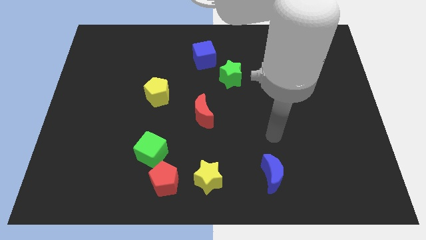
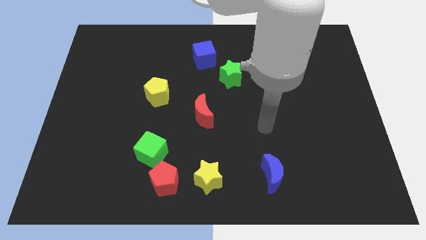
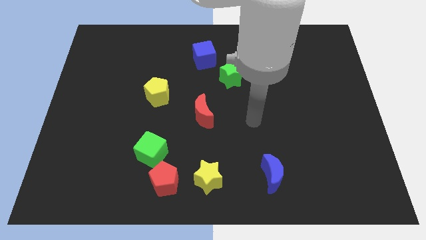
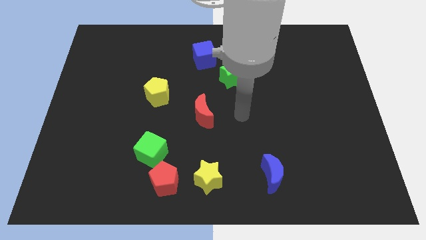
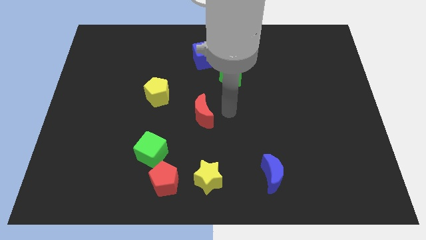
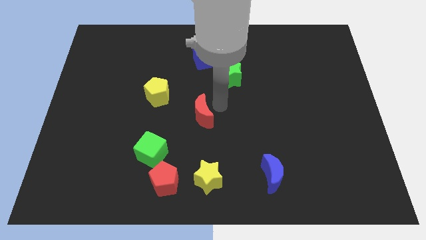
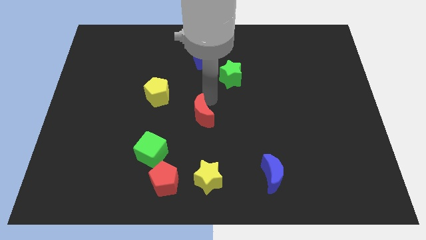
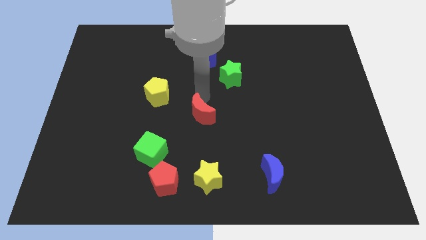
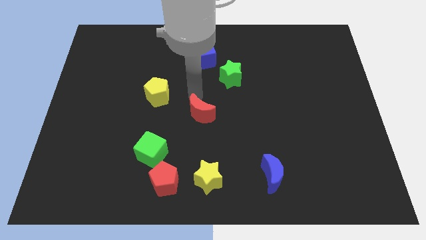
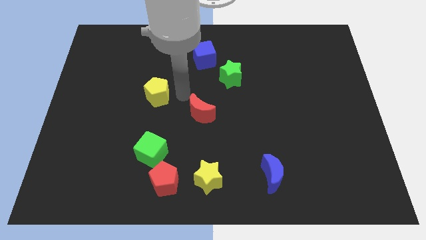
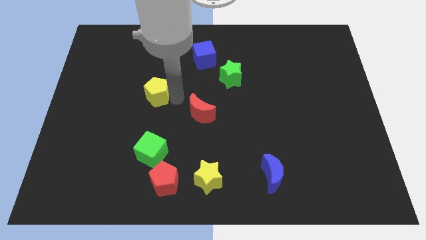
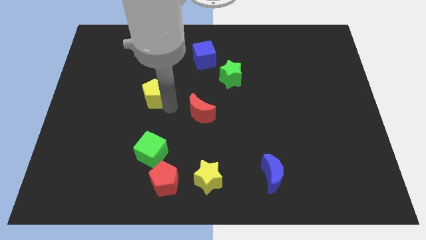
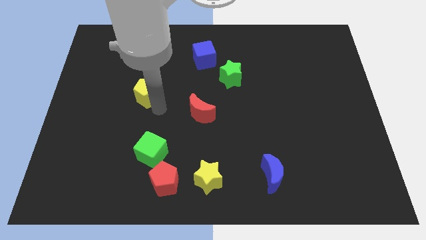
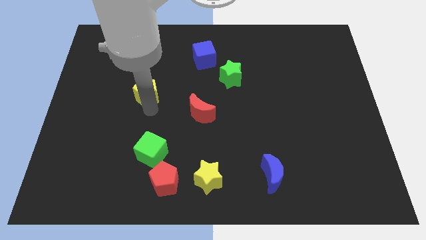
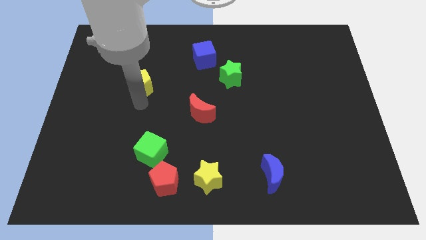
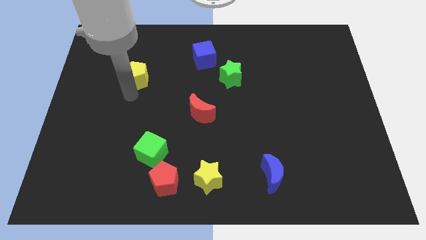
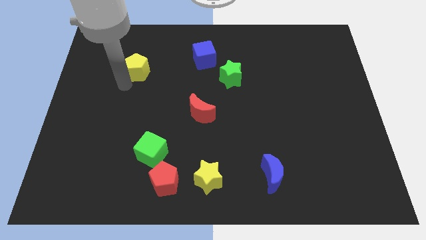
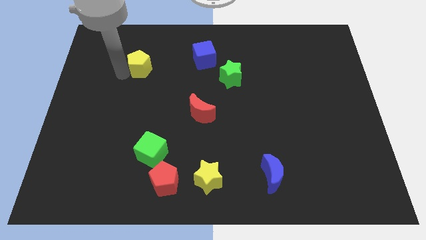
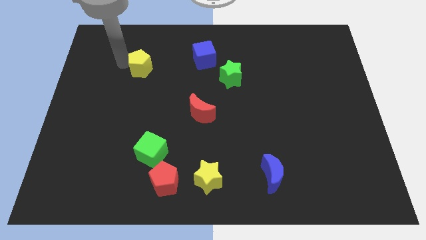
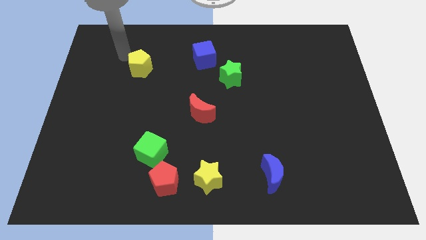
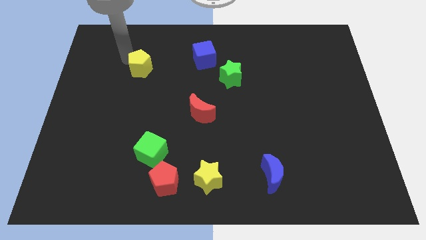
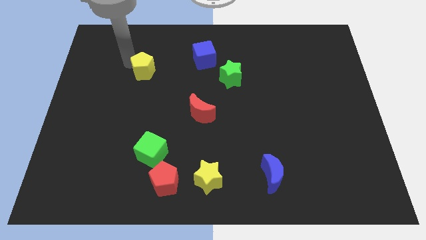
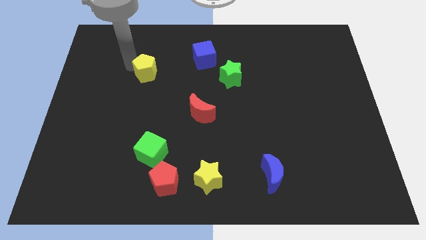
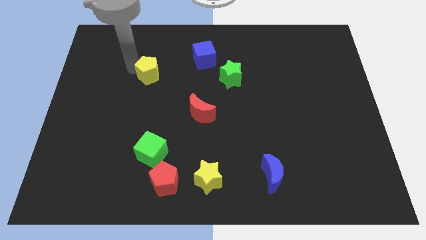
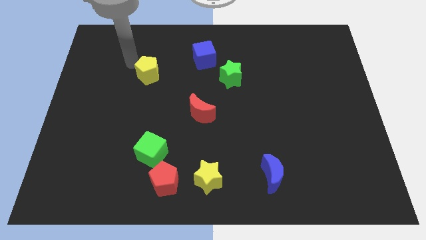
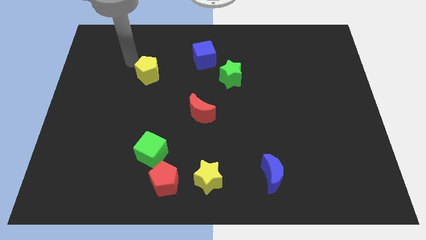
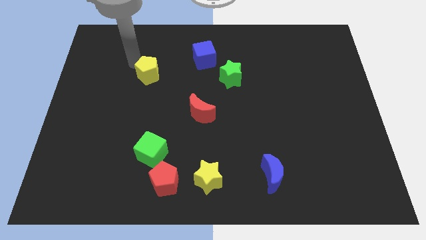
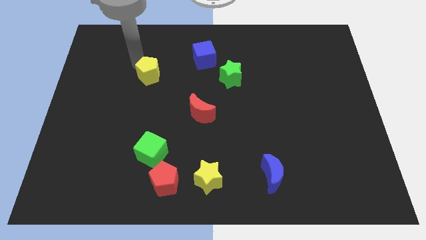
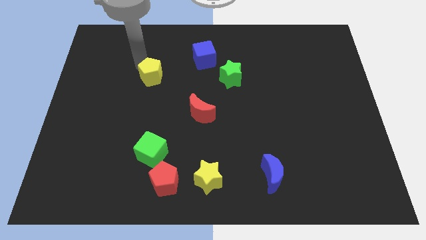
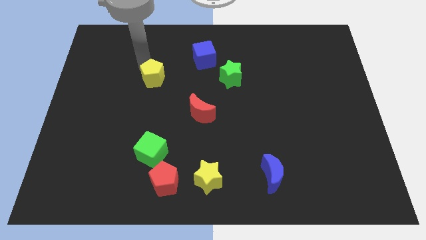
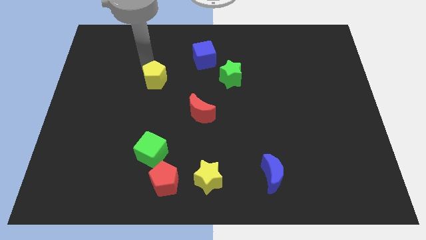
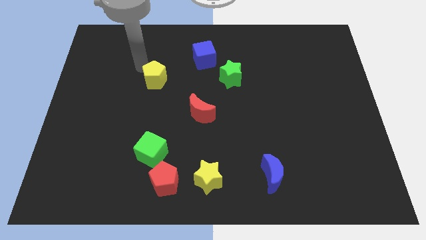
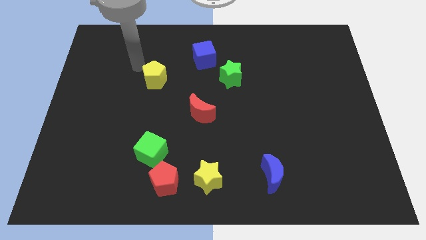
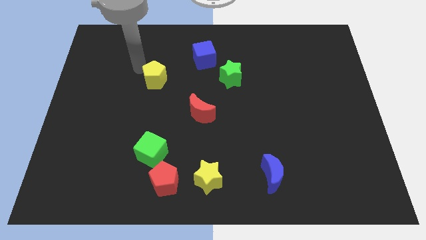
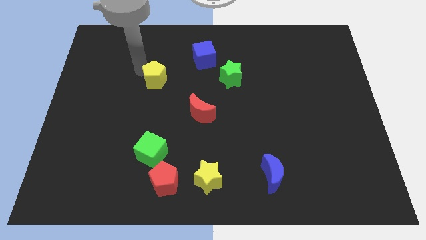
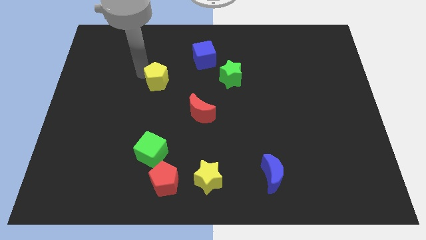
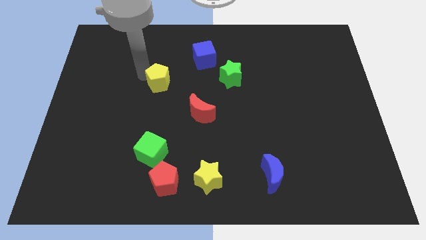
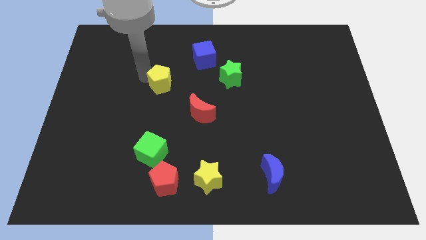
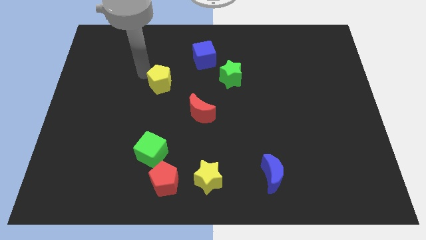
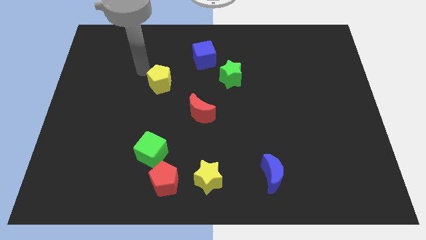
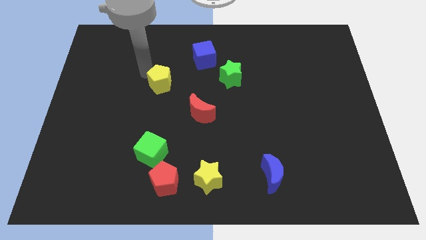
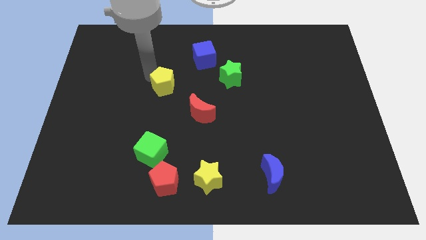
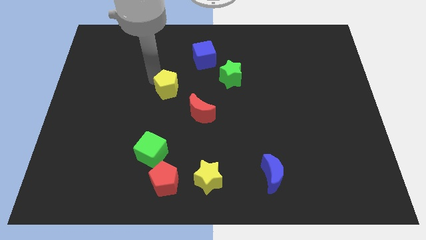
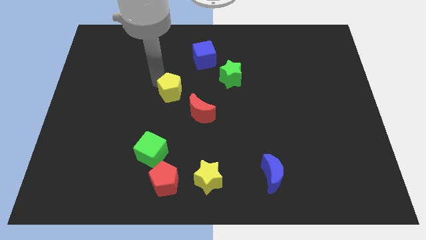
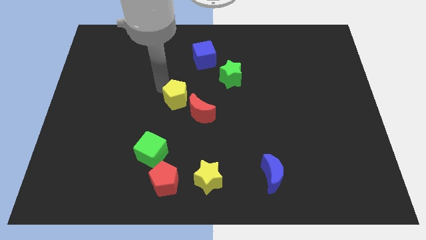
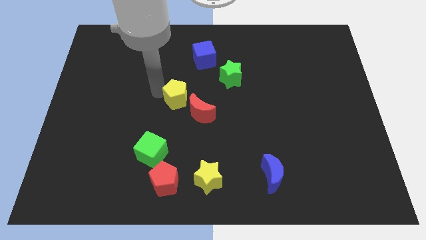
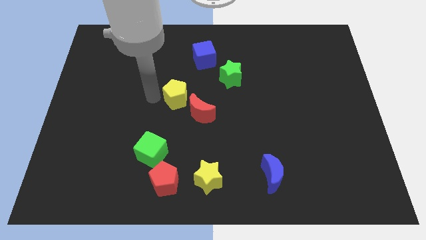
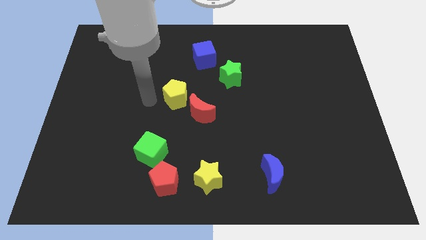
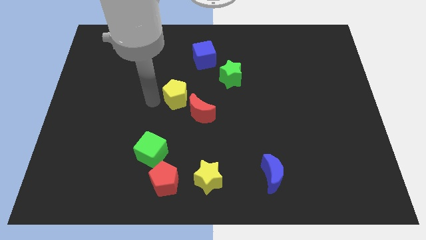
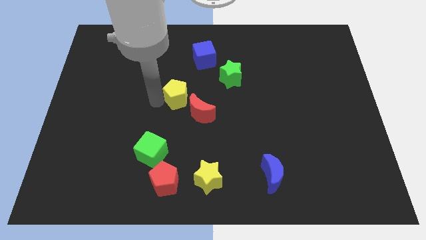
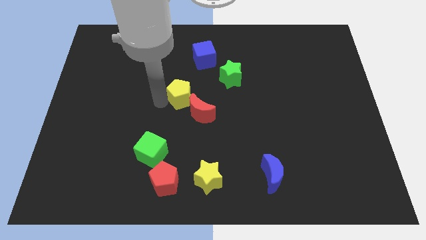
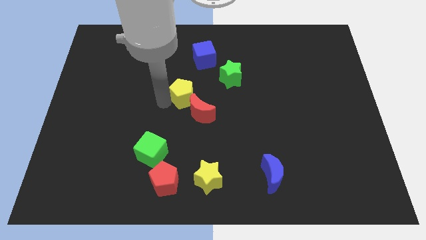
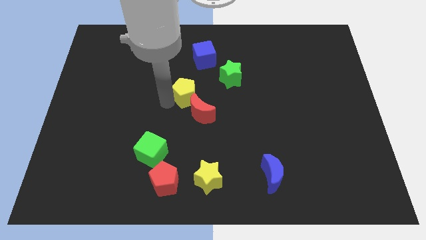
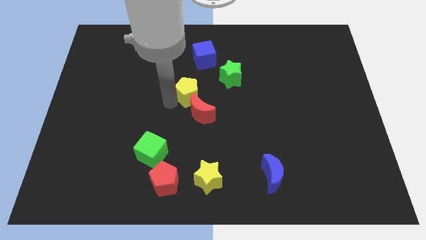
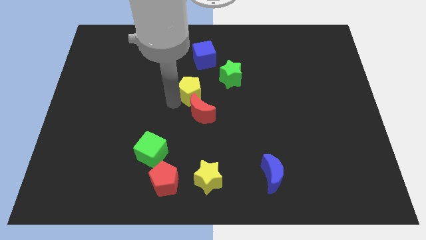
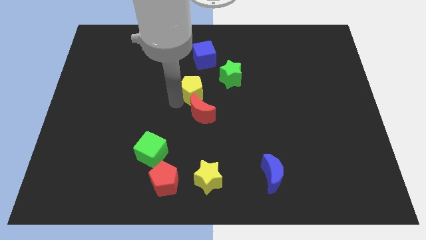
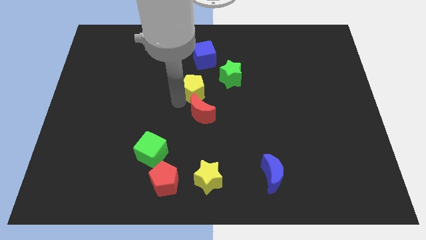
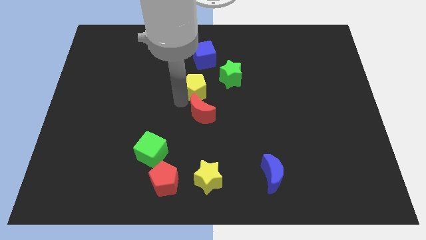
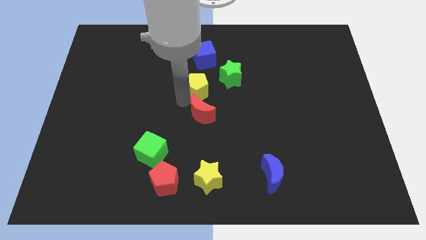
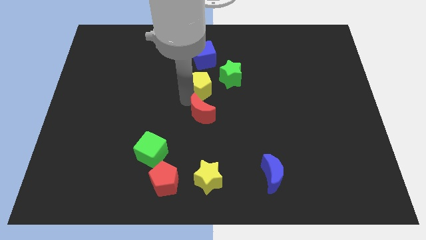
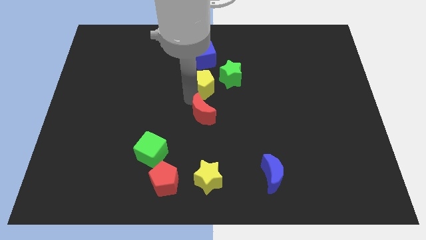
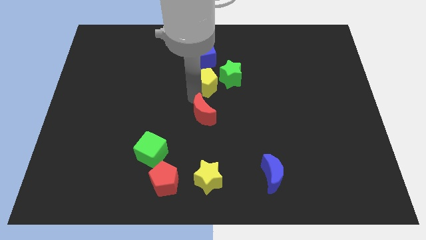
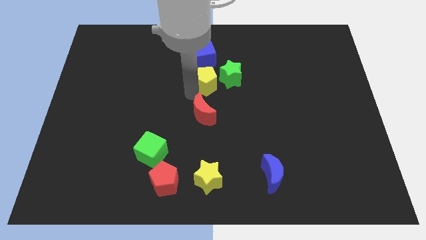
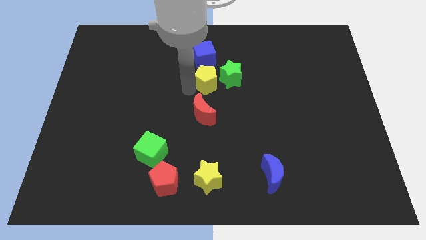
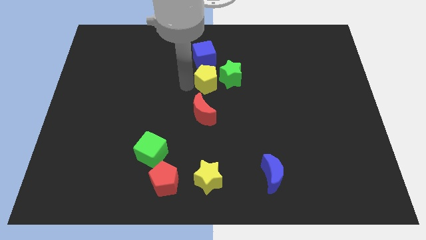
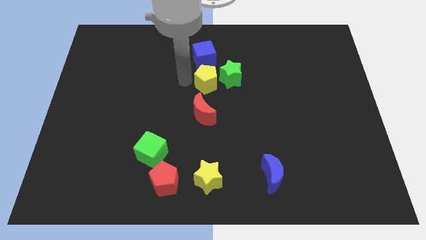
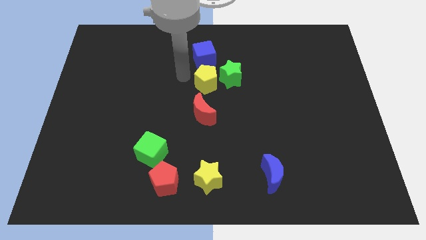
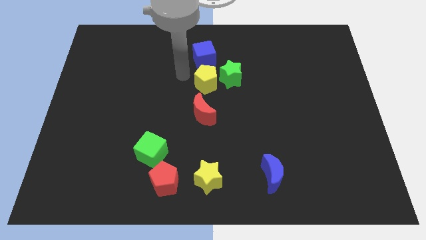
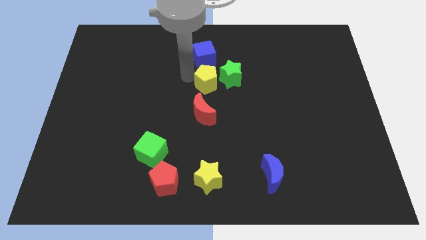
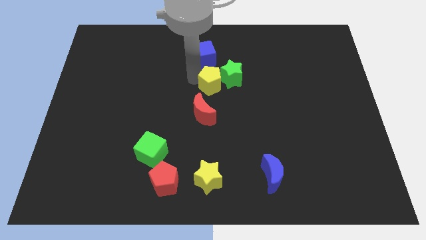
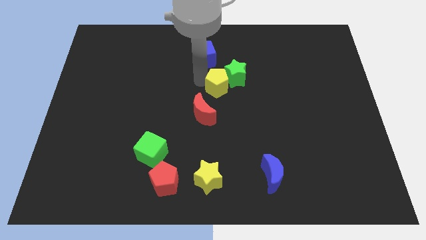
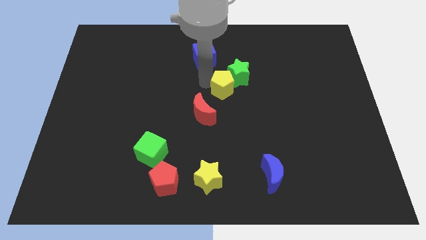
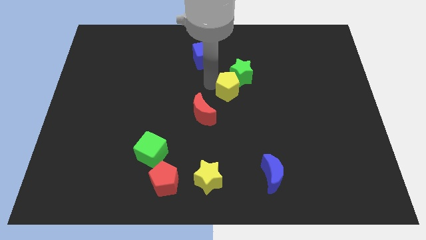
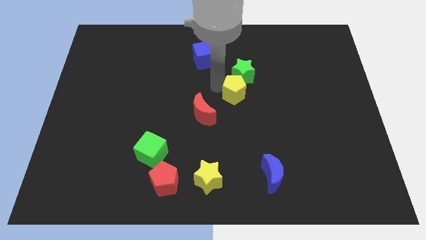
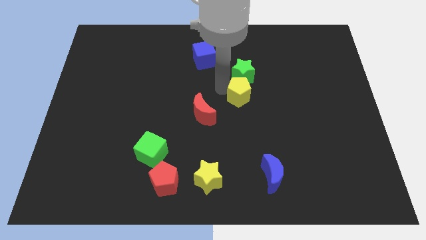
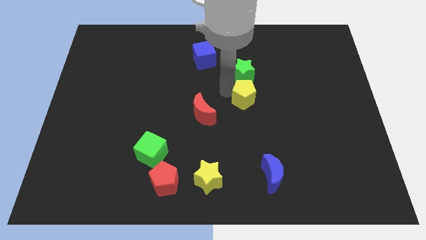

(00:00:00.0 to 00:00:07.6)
move the yellow pentagon right

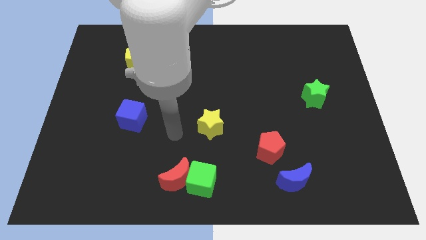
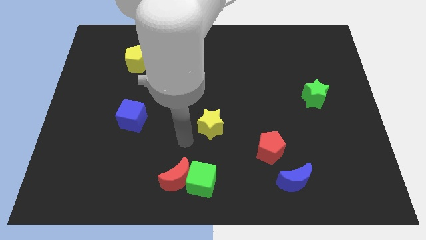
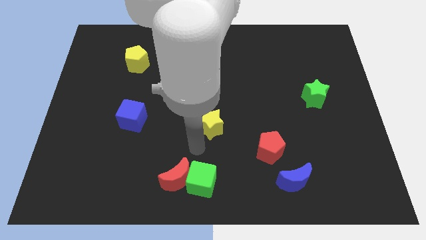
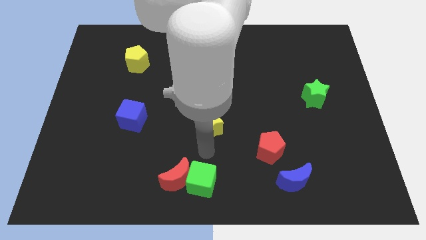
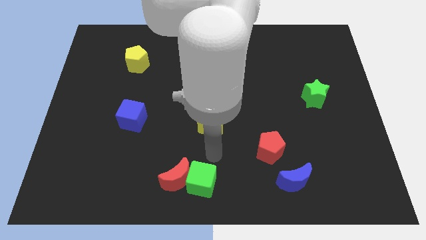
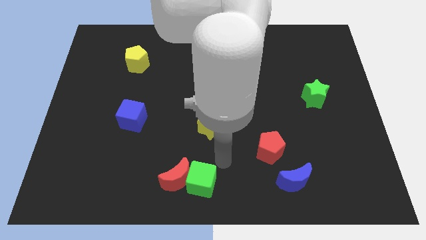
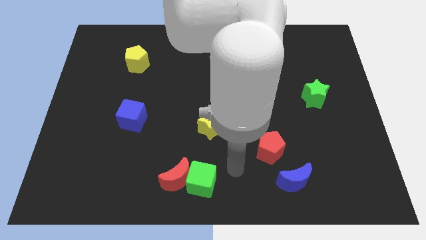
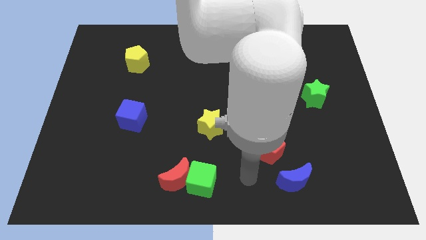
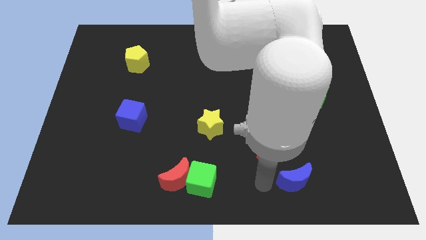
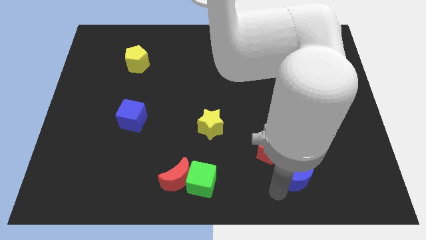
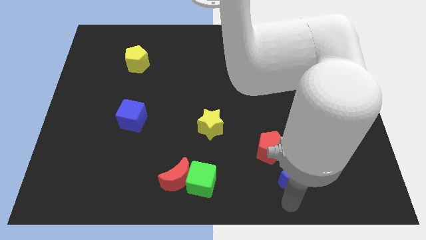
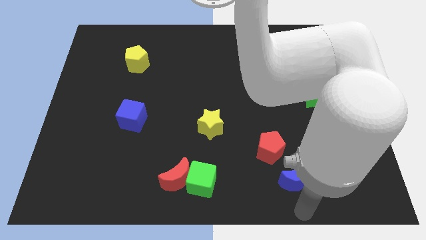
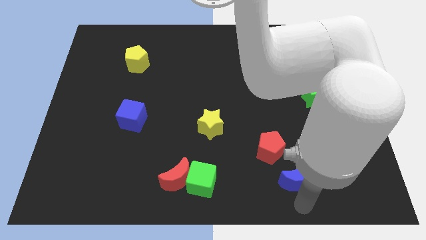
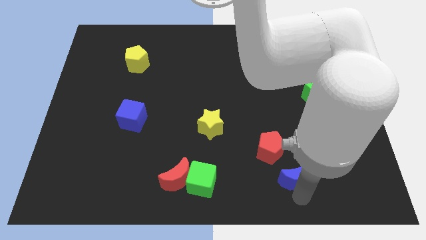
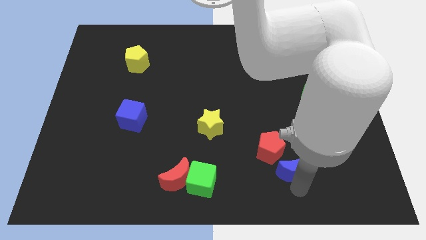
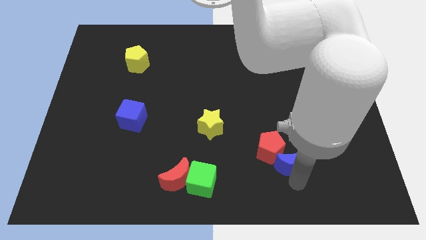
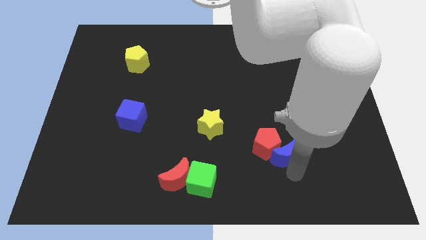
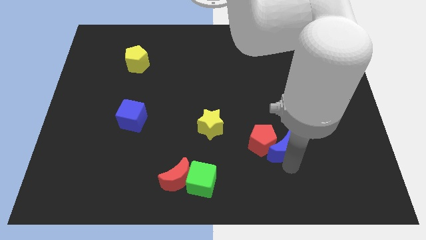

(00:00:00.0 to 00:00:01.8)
slide the blue moon up somewhat
